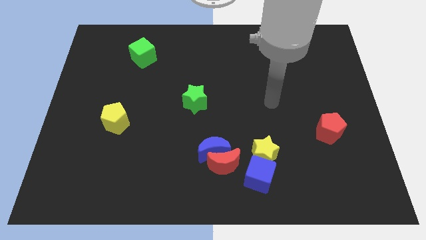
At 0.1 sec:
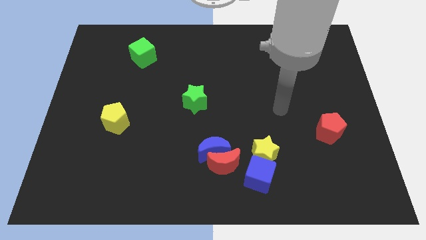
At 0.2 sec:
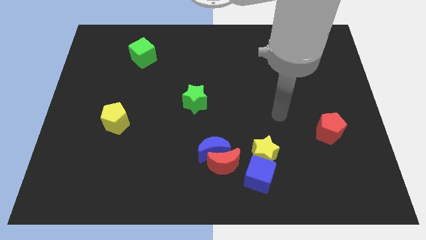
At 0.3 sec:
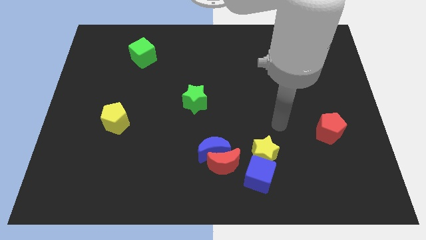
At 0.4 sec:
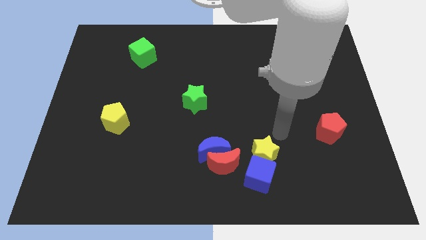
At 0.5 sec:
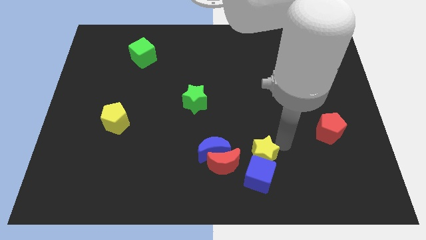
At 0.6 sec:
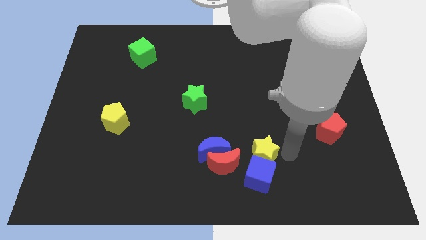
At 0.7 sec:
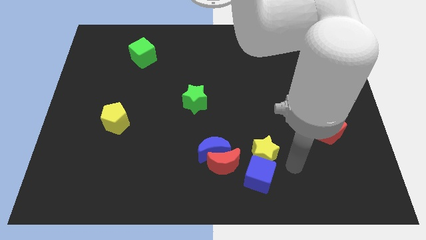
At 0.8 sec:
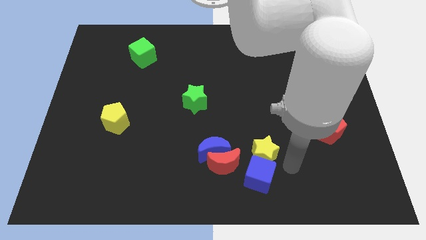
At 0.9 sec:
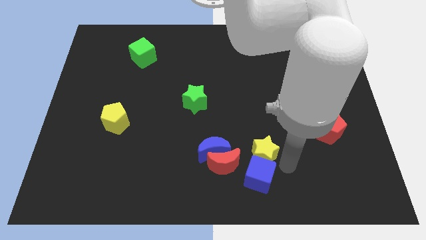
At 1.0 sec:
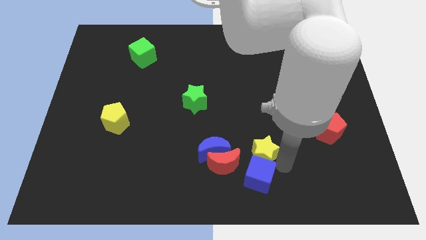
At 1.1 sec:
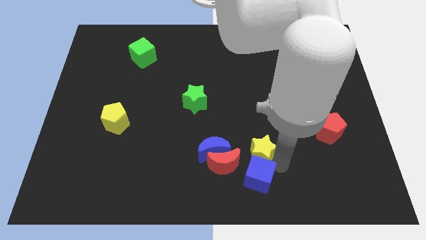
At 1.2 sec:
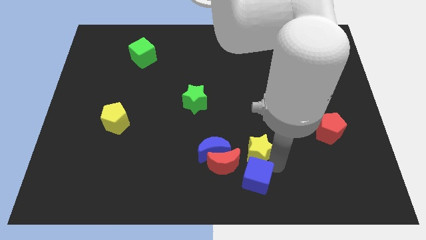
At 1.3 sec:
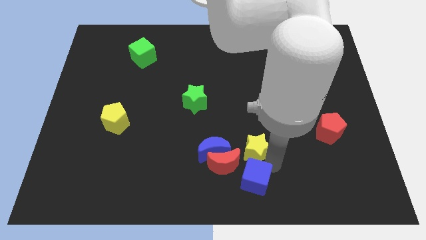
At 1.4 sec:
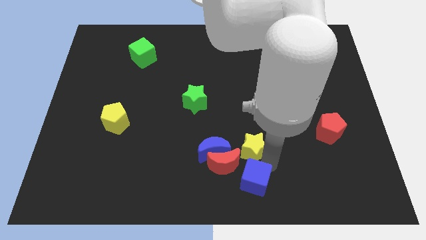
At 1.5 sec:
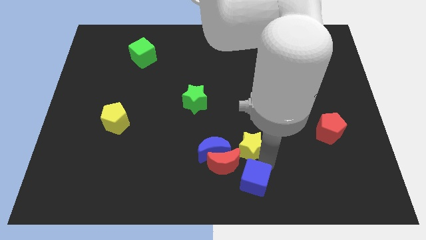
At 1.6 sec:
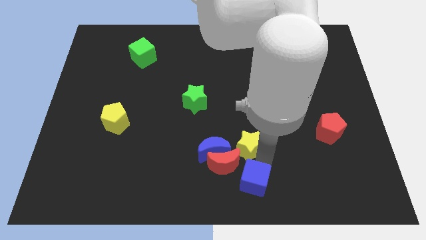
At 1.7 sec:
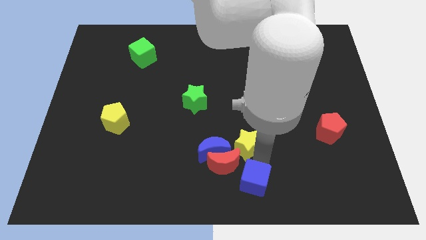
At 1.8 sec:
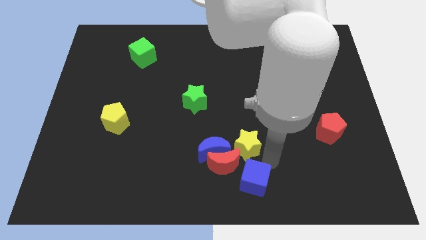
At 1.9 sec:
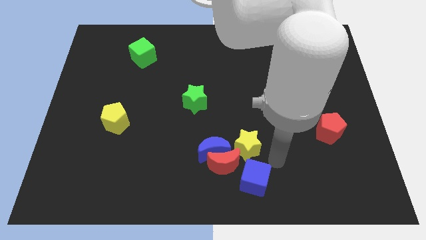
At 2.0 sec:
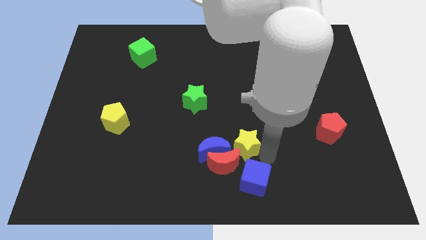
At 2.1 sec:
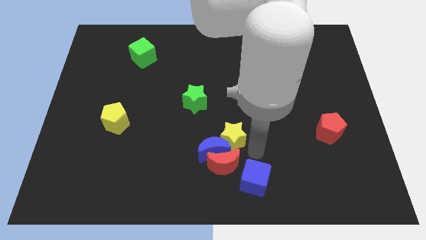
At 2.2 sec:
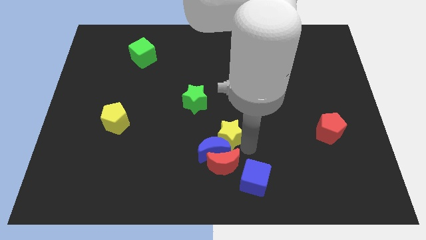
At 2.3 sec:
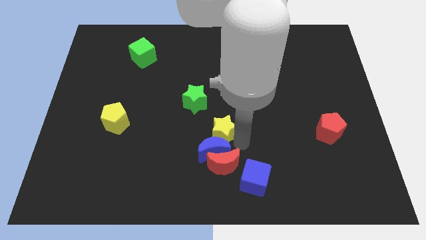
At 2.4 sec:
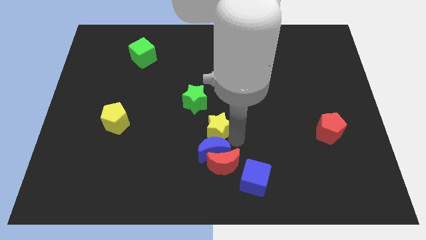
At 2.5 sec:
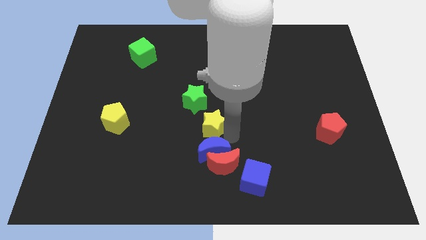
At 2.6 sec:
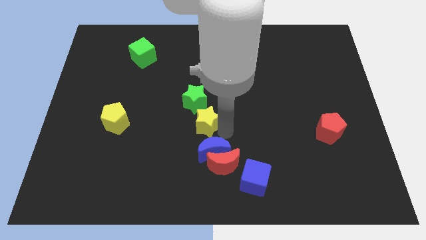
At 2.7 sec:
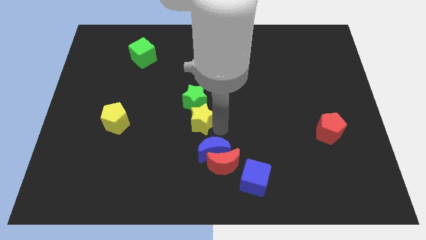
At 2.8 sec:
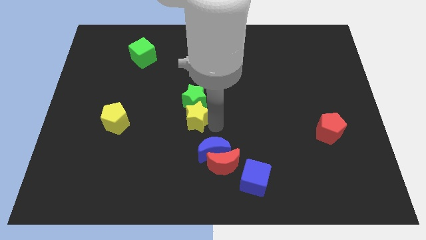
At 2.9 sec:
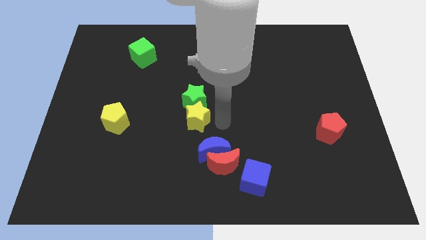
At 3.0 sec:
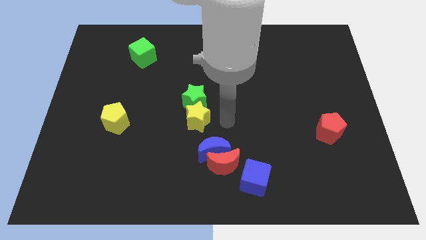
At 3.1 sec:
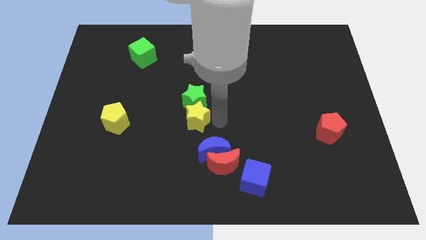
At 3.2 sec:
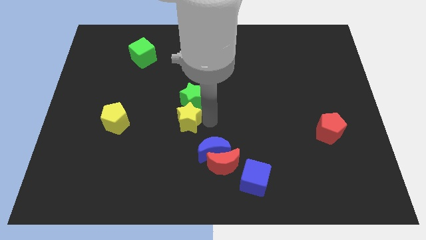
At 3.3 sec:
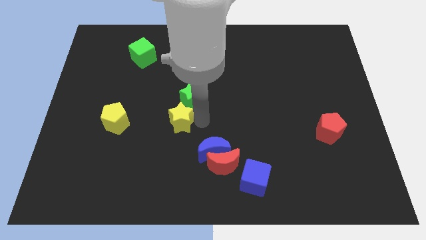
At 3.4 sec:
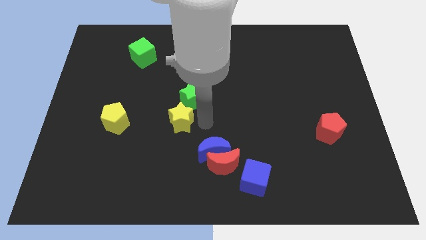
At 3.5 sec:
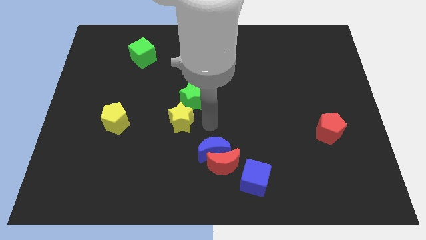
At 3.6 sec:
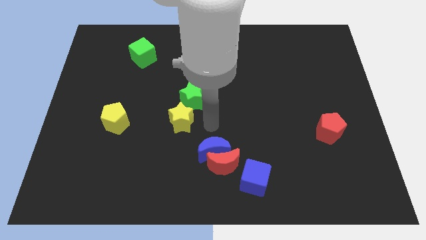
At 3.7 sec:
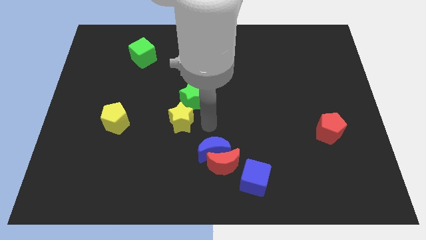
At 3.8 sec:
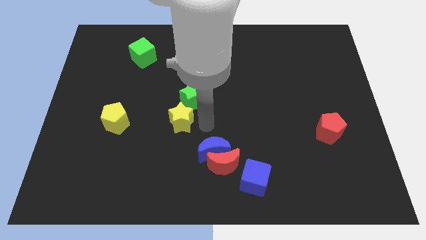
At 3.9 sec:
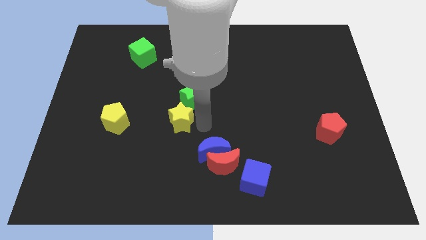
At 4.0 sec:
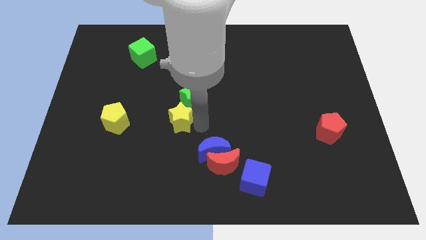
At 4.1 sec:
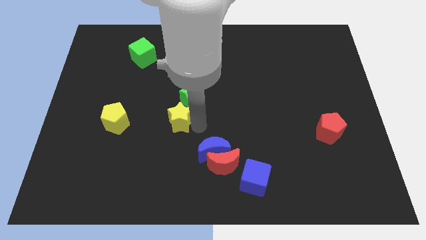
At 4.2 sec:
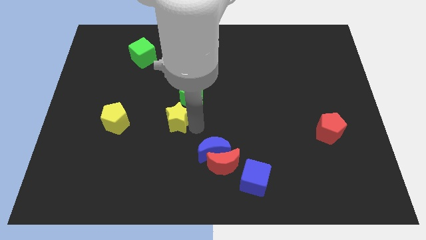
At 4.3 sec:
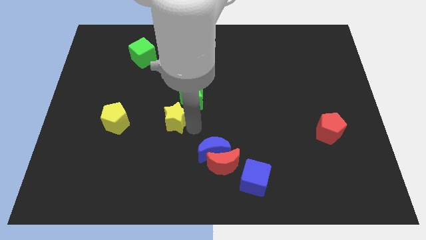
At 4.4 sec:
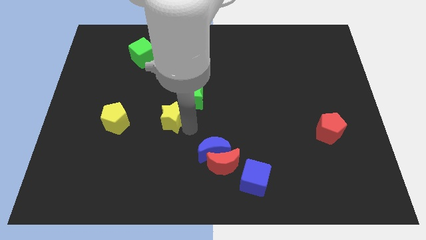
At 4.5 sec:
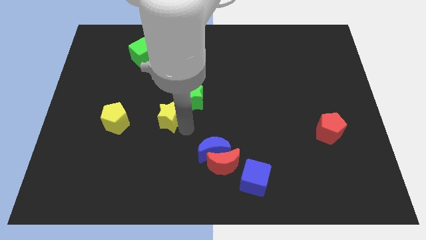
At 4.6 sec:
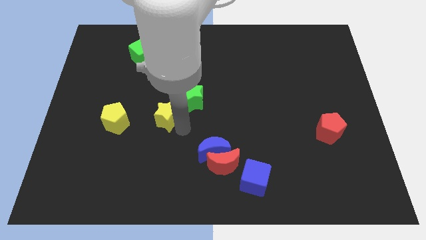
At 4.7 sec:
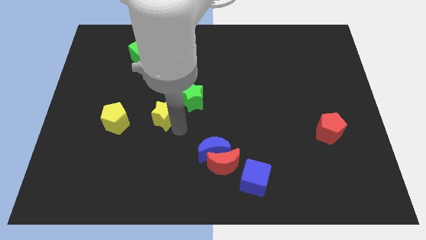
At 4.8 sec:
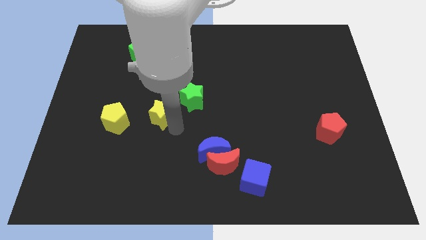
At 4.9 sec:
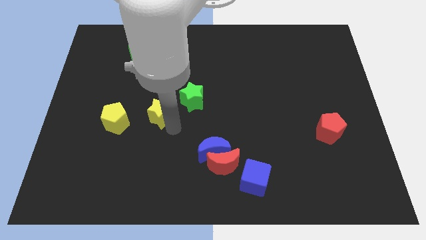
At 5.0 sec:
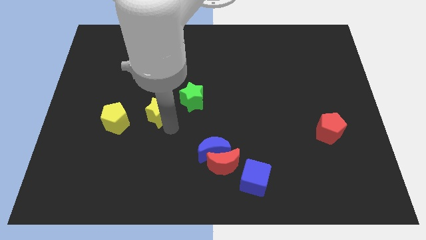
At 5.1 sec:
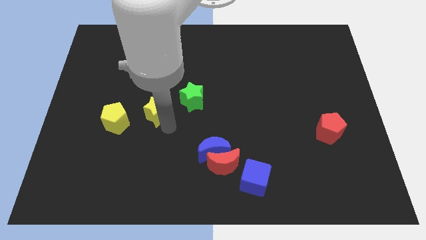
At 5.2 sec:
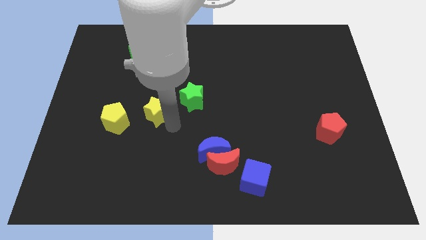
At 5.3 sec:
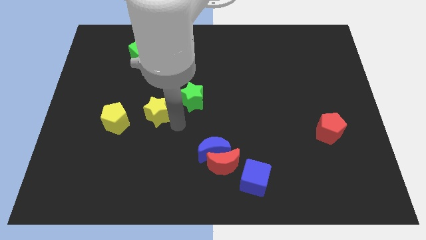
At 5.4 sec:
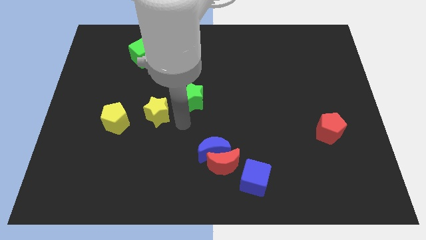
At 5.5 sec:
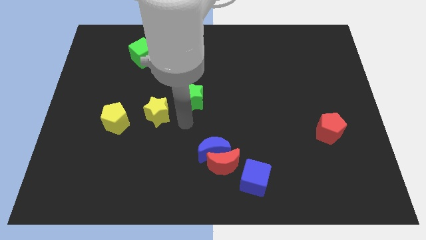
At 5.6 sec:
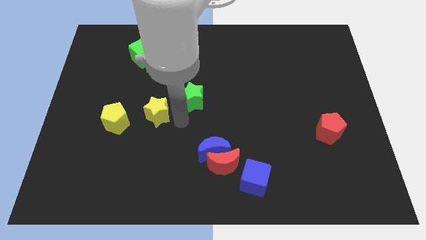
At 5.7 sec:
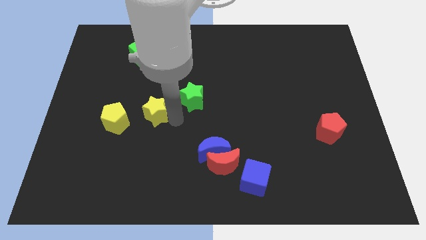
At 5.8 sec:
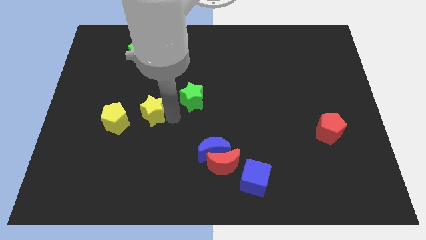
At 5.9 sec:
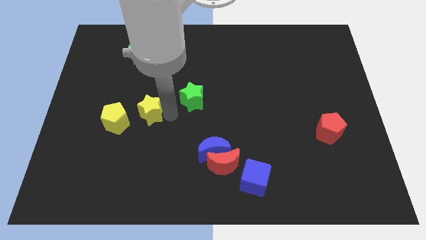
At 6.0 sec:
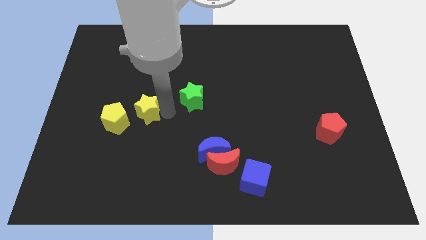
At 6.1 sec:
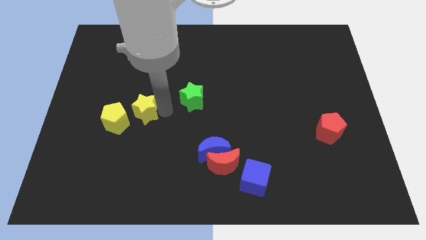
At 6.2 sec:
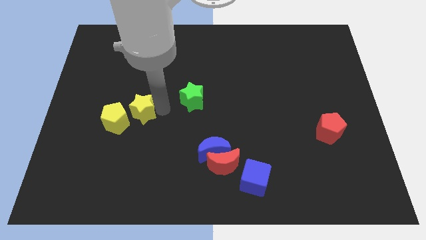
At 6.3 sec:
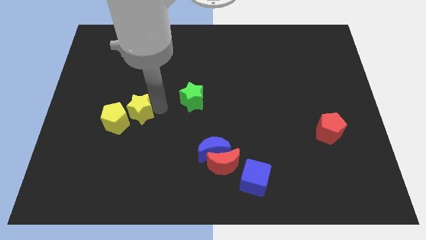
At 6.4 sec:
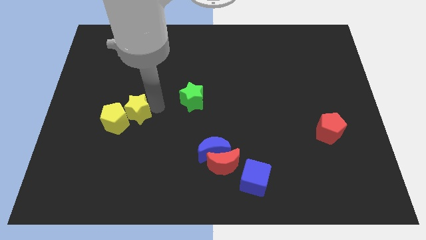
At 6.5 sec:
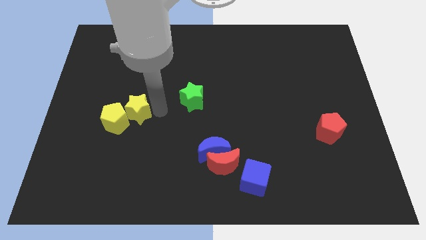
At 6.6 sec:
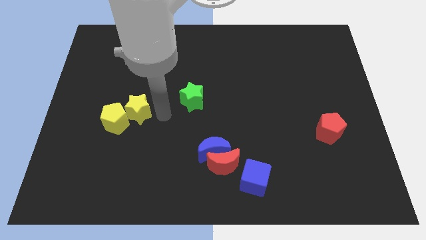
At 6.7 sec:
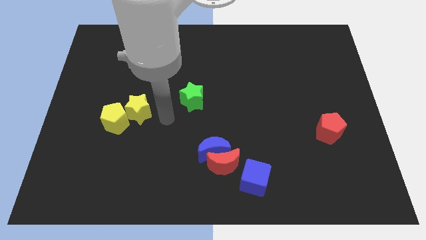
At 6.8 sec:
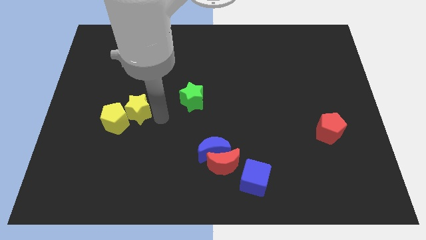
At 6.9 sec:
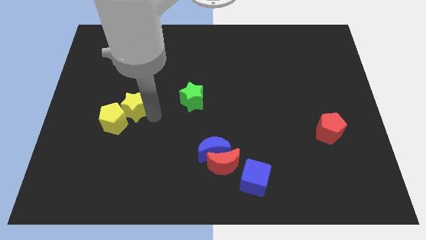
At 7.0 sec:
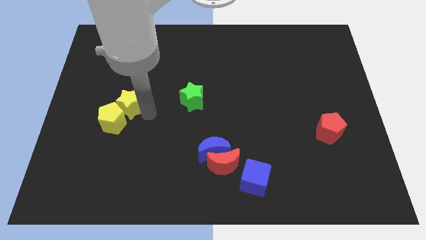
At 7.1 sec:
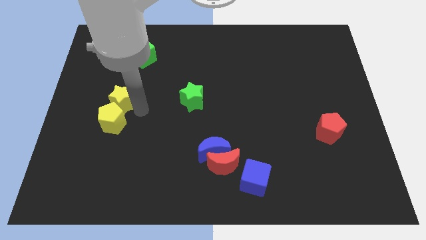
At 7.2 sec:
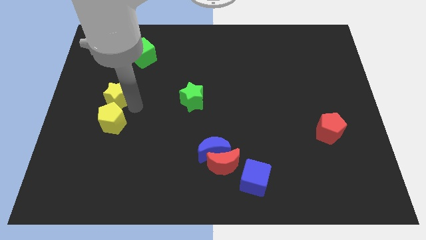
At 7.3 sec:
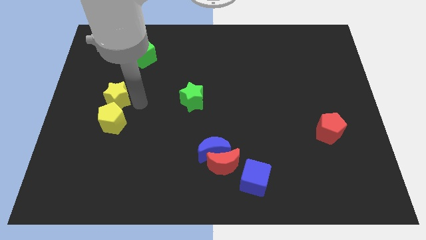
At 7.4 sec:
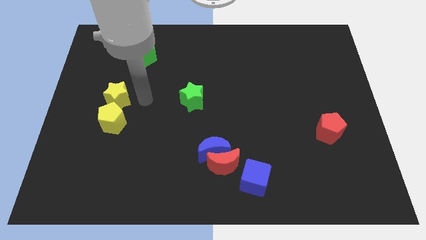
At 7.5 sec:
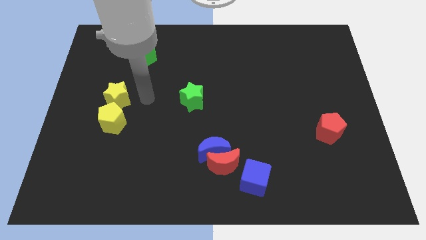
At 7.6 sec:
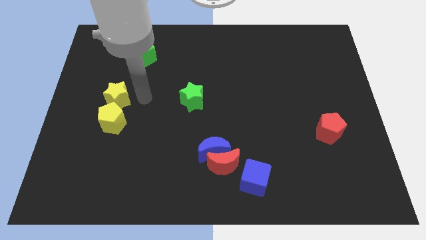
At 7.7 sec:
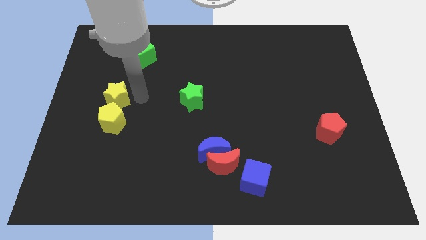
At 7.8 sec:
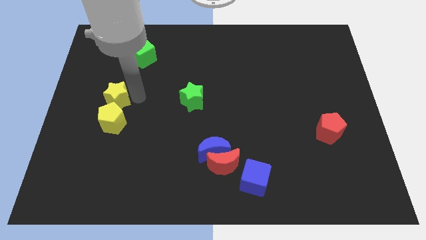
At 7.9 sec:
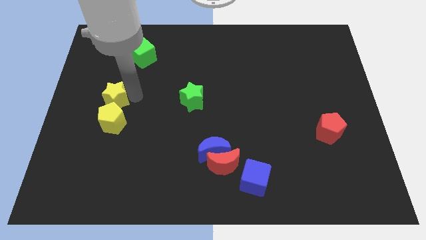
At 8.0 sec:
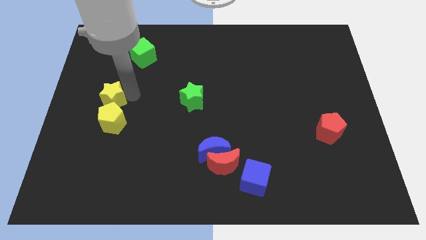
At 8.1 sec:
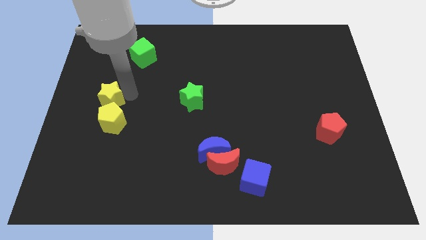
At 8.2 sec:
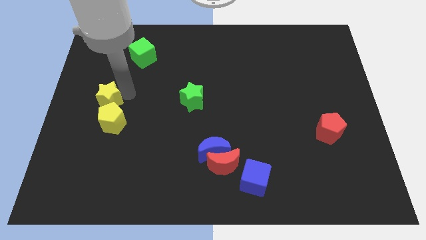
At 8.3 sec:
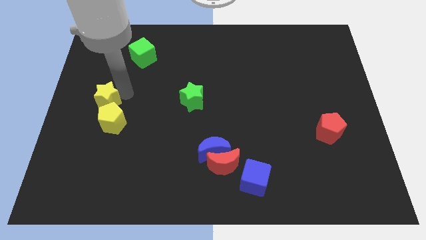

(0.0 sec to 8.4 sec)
put the yellow star to the left side
